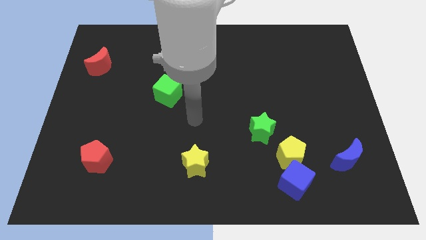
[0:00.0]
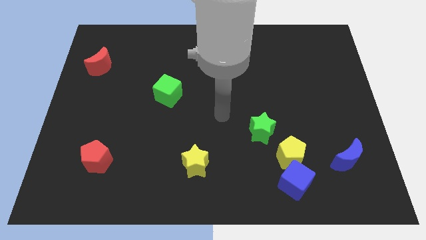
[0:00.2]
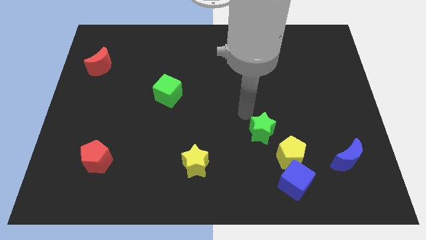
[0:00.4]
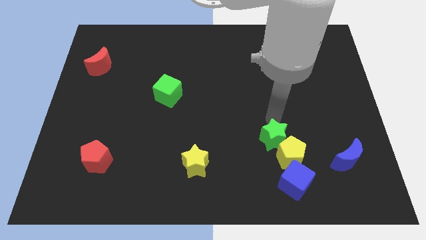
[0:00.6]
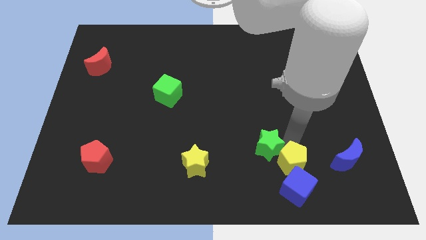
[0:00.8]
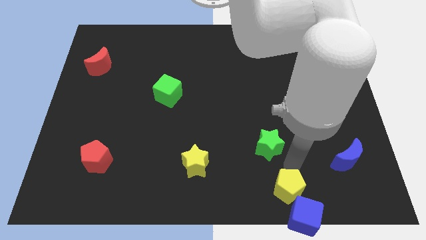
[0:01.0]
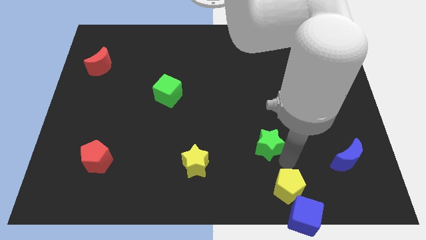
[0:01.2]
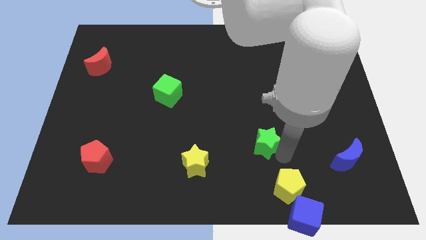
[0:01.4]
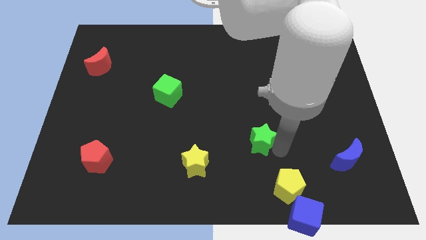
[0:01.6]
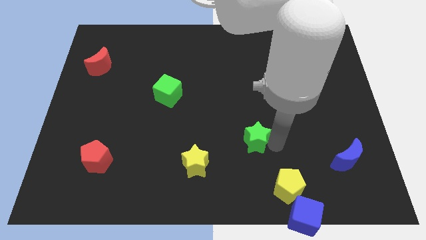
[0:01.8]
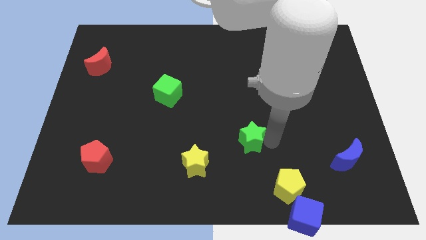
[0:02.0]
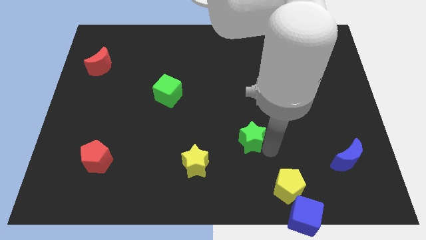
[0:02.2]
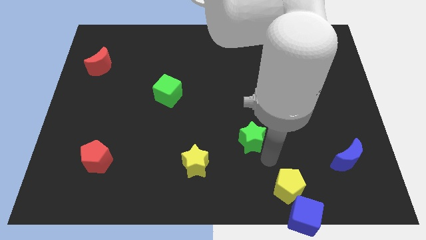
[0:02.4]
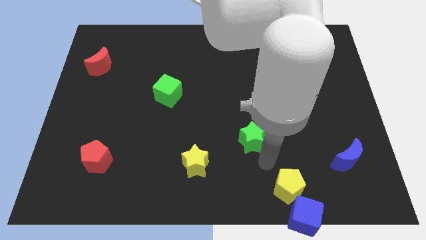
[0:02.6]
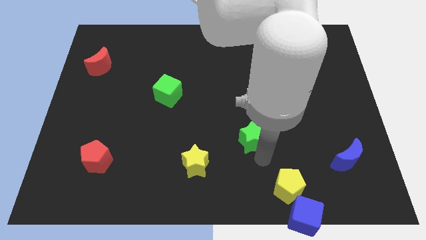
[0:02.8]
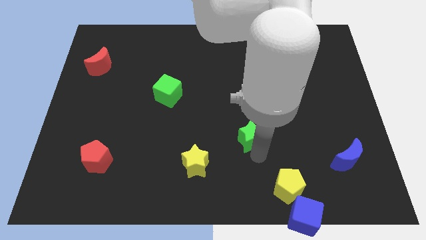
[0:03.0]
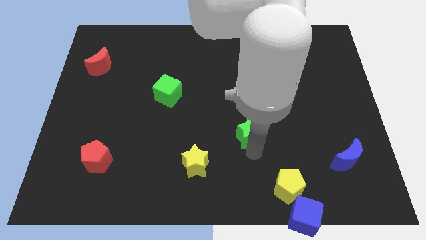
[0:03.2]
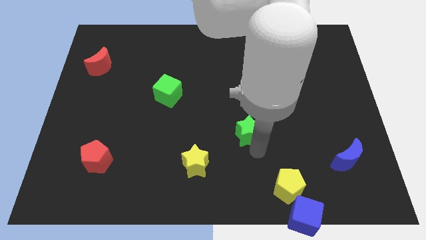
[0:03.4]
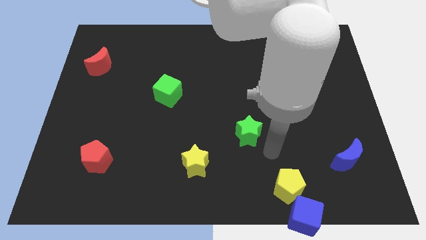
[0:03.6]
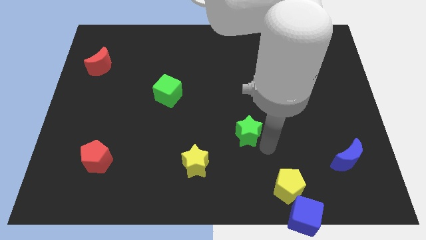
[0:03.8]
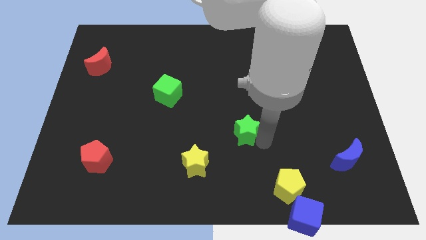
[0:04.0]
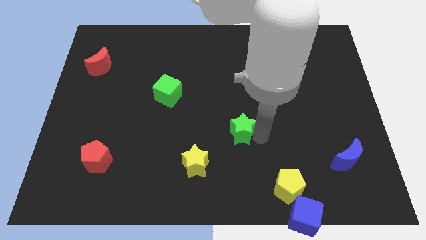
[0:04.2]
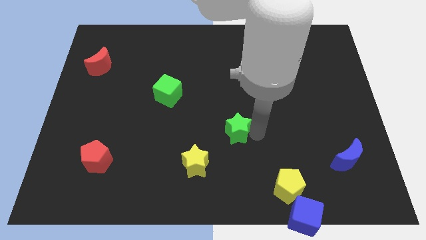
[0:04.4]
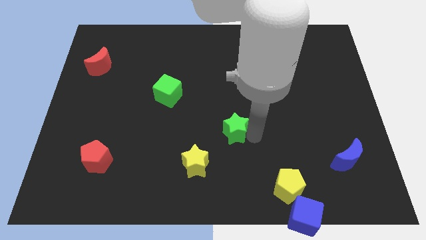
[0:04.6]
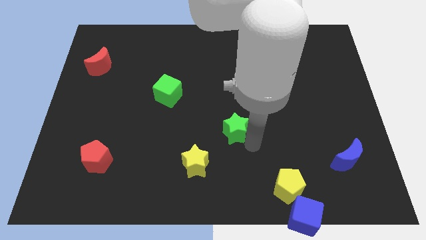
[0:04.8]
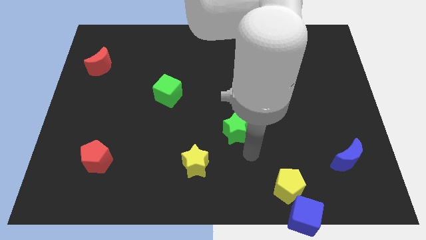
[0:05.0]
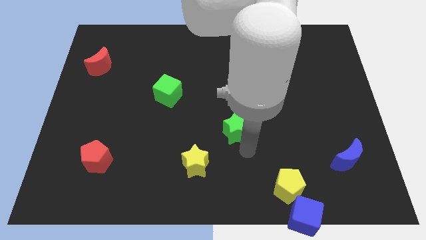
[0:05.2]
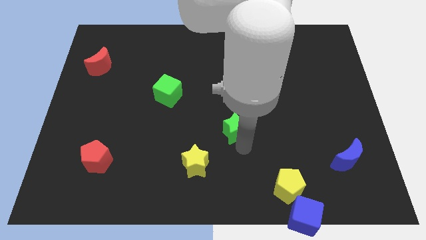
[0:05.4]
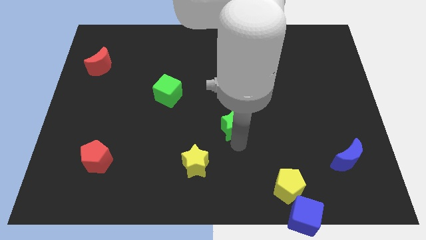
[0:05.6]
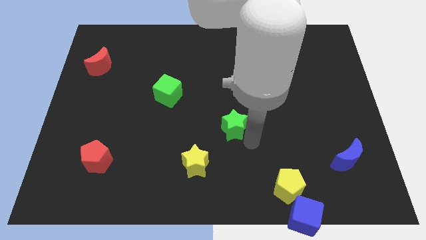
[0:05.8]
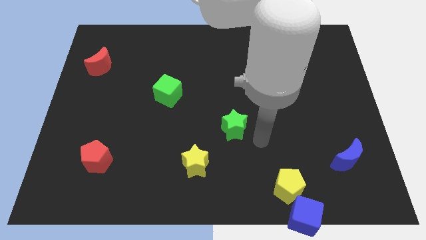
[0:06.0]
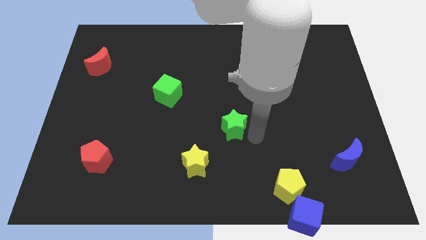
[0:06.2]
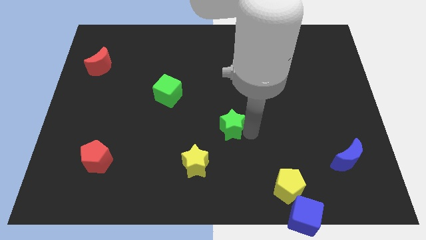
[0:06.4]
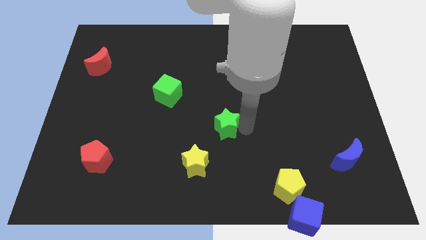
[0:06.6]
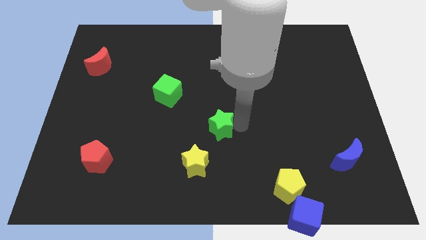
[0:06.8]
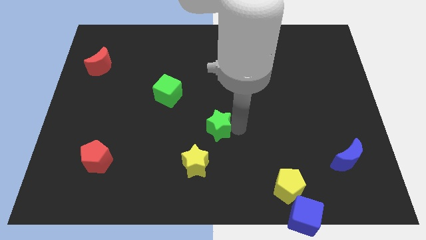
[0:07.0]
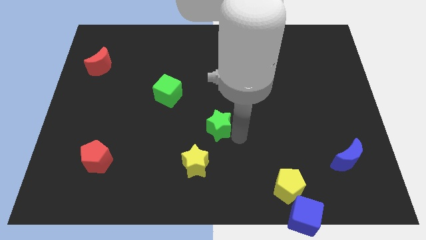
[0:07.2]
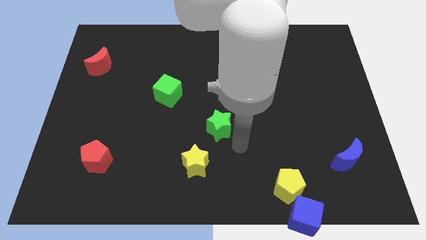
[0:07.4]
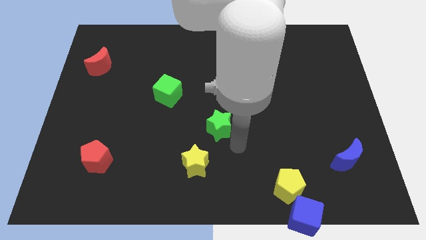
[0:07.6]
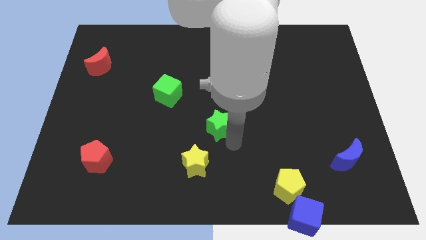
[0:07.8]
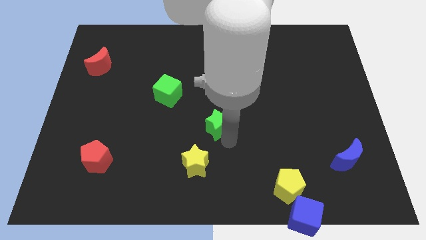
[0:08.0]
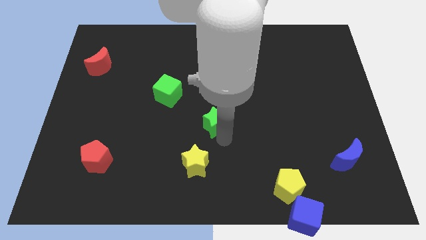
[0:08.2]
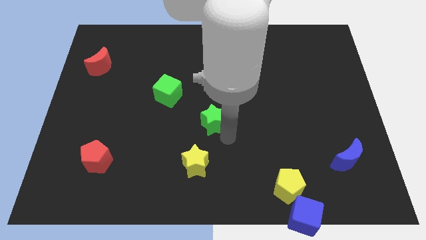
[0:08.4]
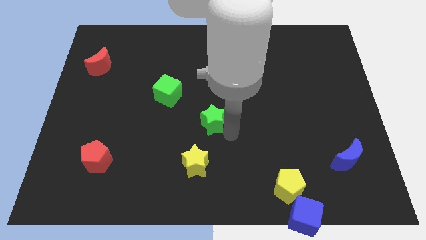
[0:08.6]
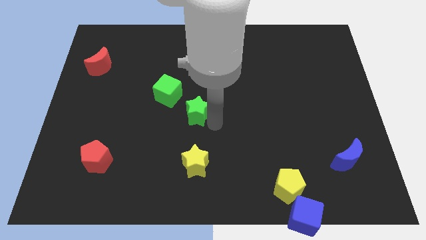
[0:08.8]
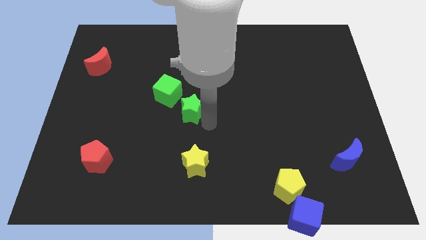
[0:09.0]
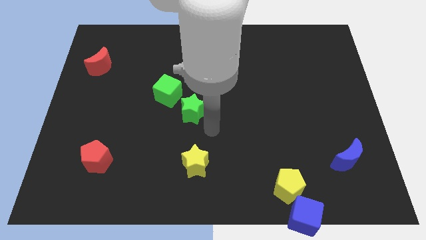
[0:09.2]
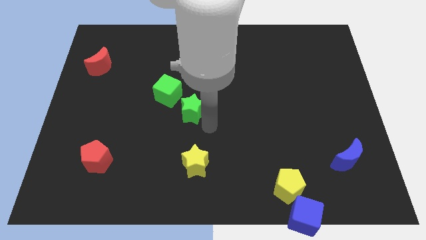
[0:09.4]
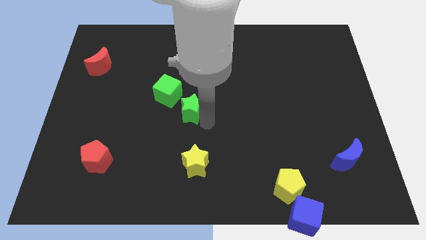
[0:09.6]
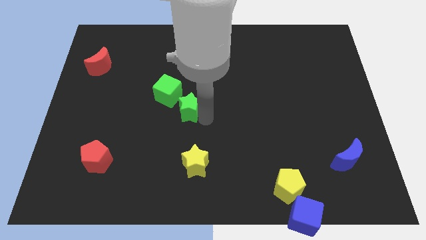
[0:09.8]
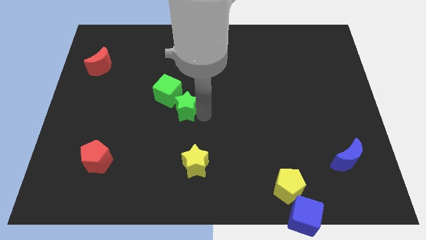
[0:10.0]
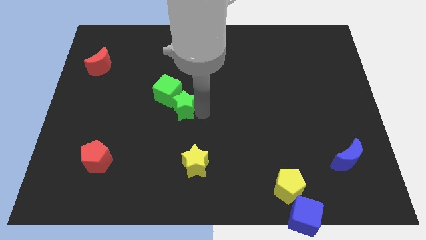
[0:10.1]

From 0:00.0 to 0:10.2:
push the green star next to the green cube

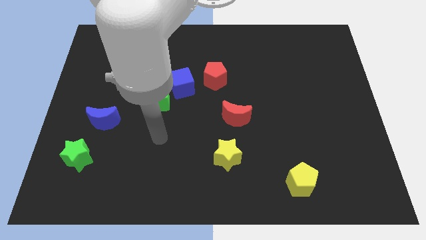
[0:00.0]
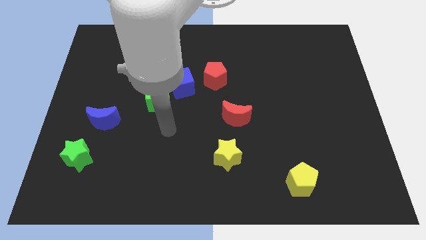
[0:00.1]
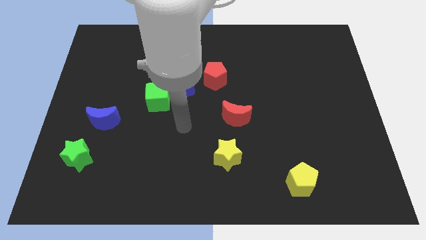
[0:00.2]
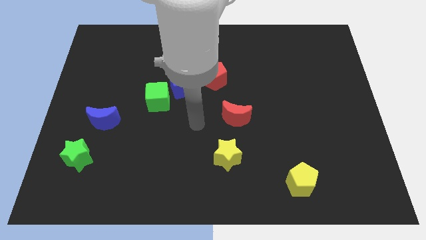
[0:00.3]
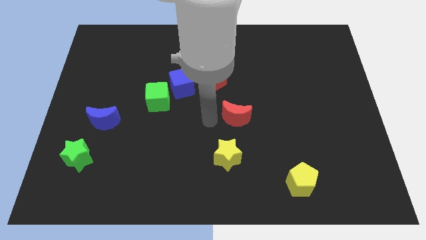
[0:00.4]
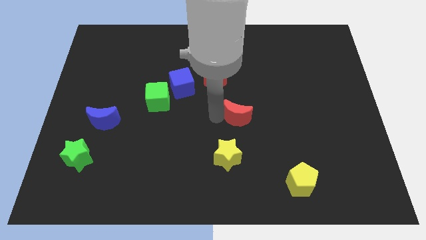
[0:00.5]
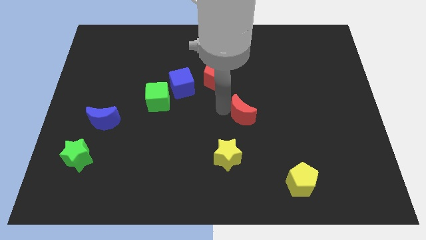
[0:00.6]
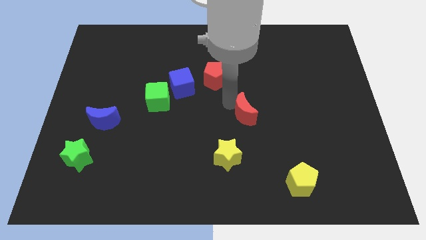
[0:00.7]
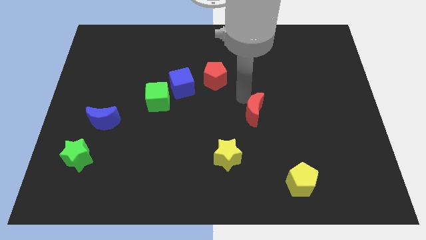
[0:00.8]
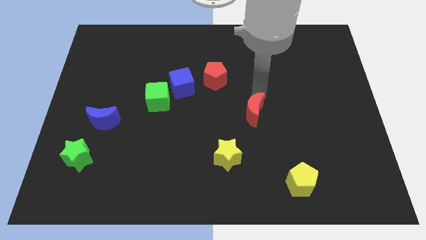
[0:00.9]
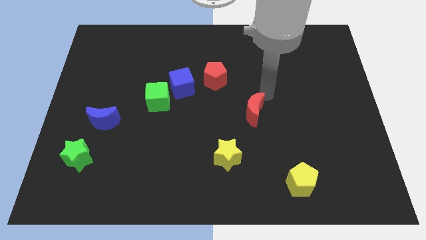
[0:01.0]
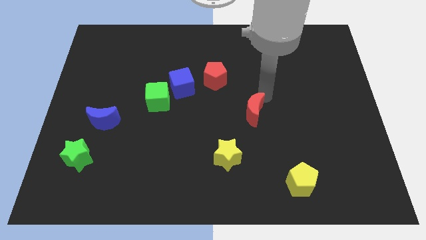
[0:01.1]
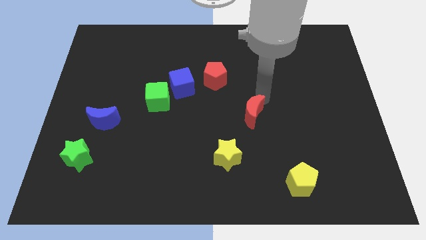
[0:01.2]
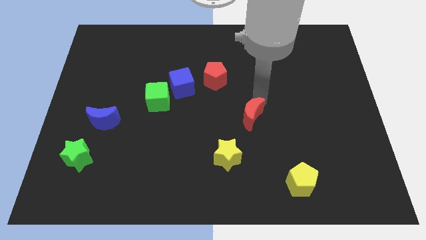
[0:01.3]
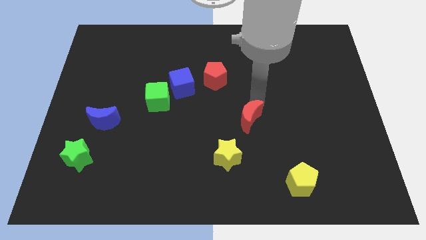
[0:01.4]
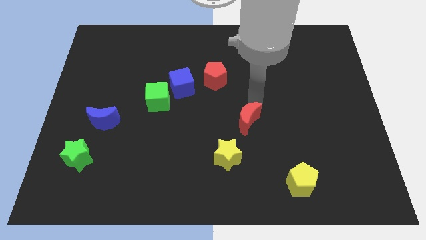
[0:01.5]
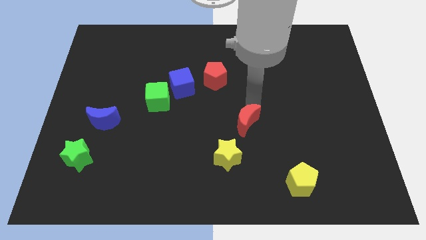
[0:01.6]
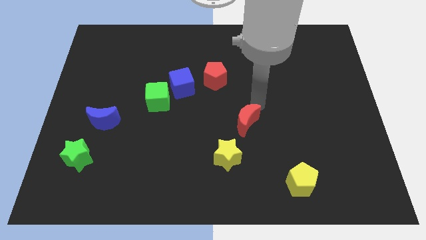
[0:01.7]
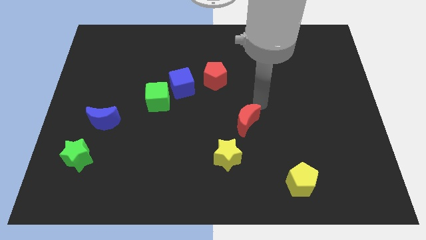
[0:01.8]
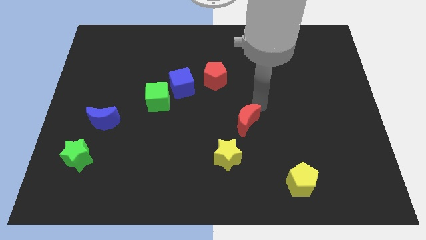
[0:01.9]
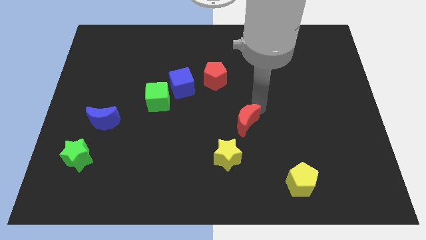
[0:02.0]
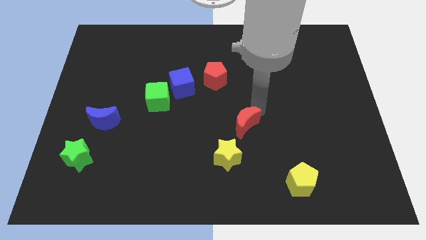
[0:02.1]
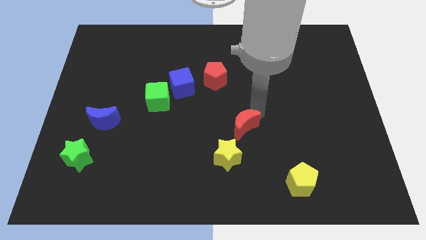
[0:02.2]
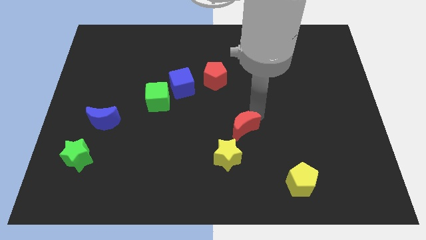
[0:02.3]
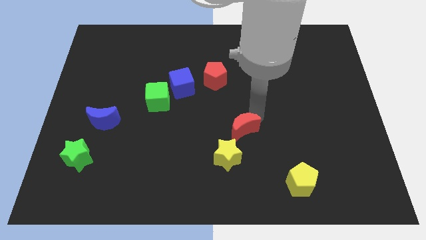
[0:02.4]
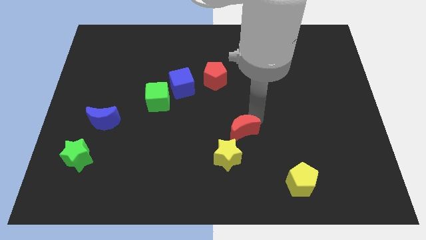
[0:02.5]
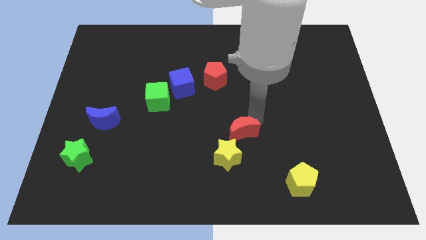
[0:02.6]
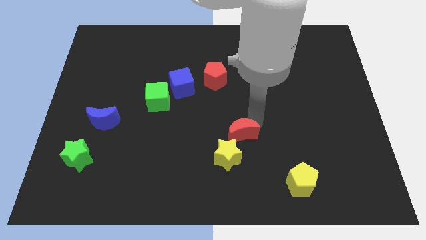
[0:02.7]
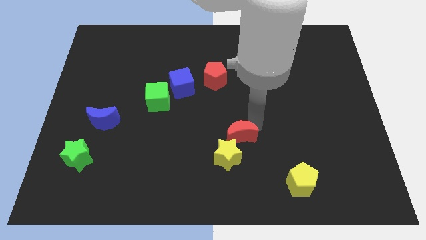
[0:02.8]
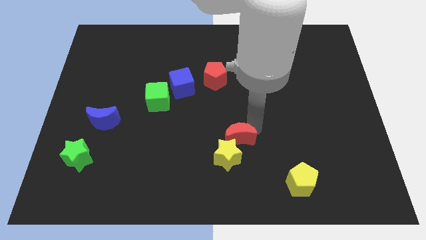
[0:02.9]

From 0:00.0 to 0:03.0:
slide the red moon towards the yellow star
